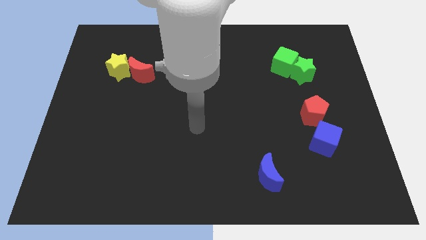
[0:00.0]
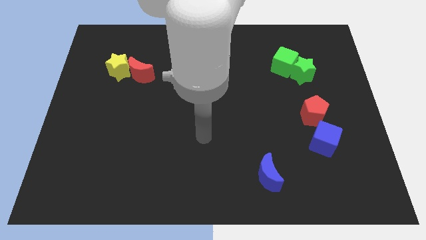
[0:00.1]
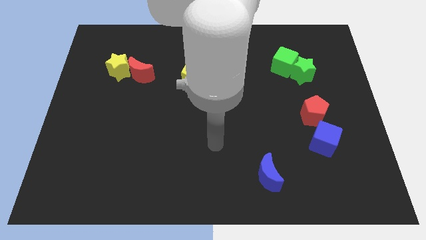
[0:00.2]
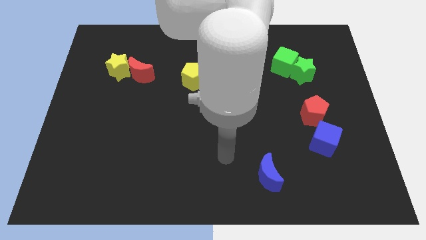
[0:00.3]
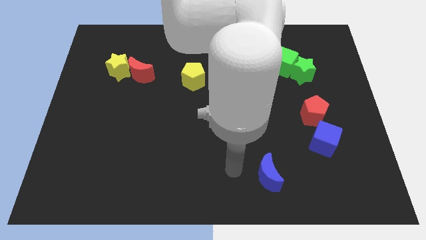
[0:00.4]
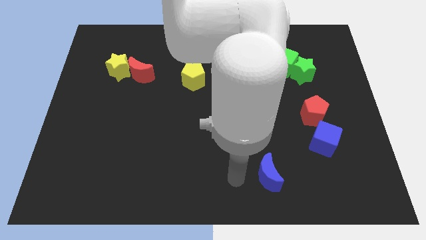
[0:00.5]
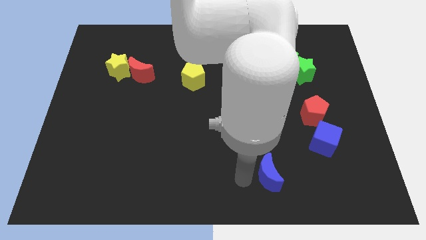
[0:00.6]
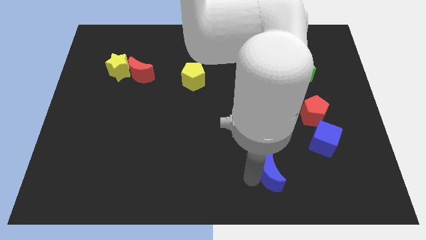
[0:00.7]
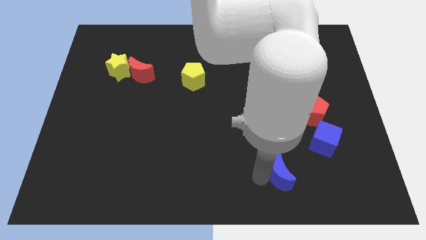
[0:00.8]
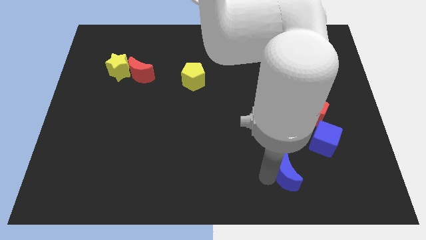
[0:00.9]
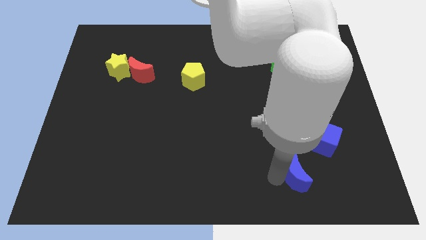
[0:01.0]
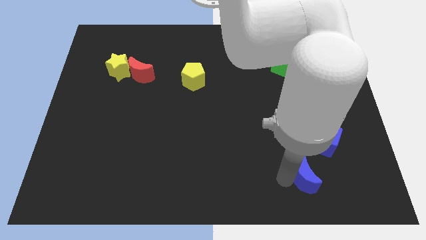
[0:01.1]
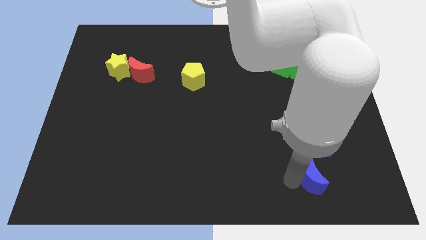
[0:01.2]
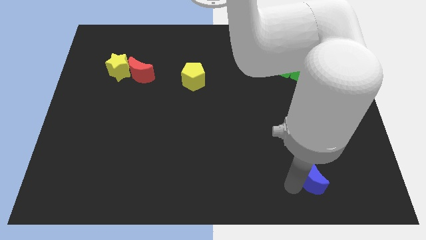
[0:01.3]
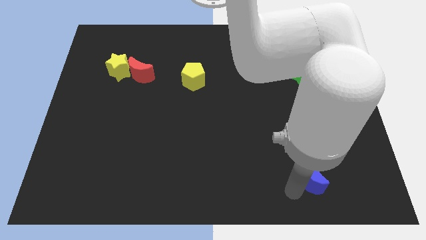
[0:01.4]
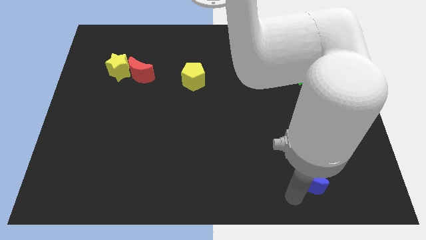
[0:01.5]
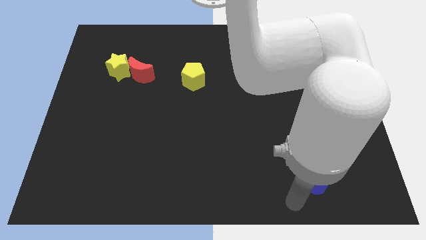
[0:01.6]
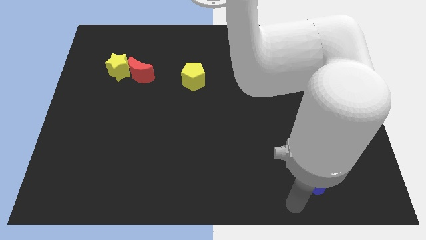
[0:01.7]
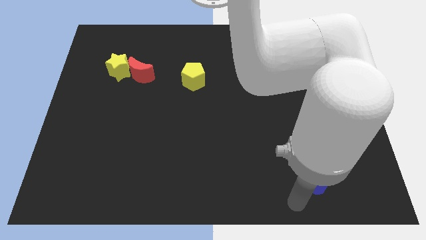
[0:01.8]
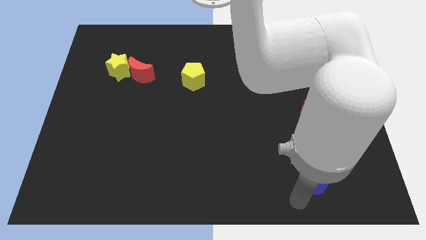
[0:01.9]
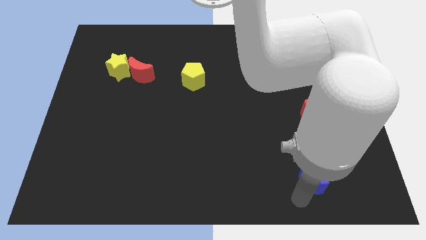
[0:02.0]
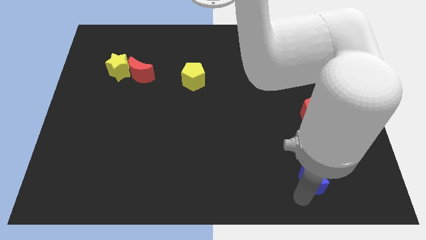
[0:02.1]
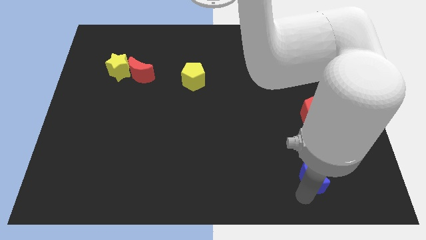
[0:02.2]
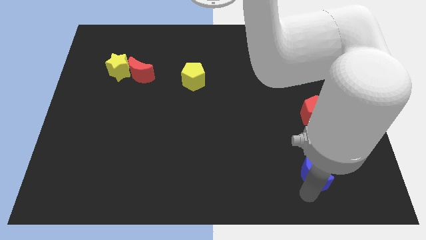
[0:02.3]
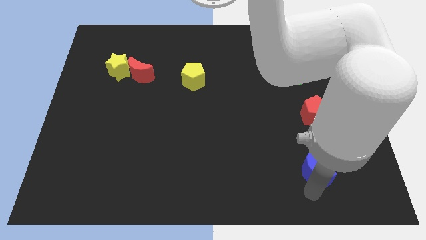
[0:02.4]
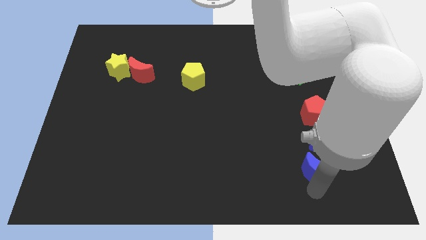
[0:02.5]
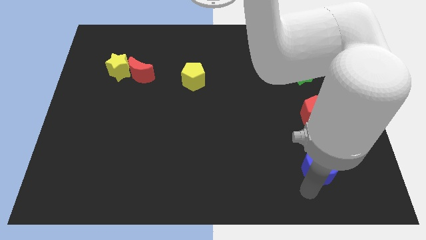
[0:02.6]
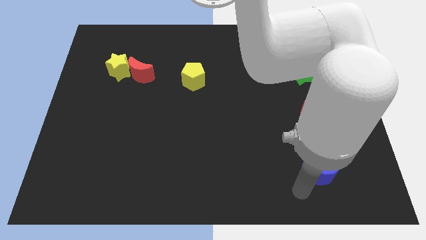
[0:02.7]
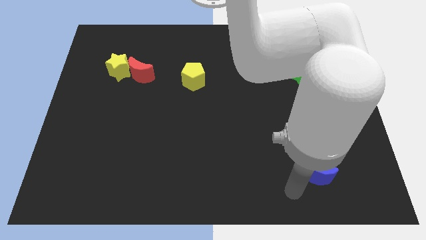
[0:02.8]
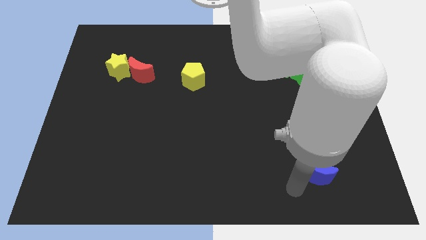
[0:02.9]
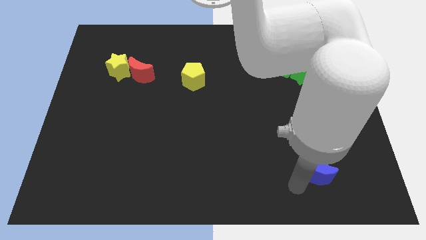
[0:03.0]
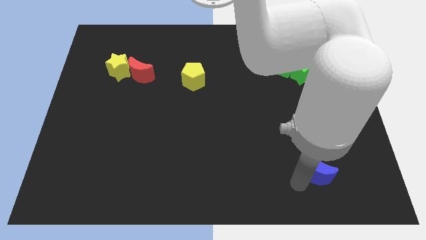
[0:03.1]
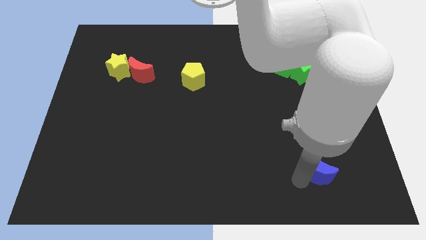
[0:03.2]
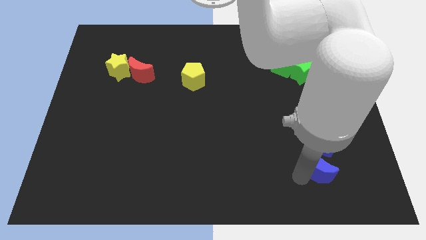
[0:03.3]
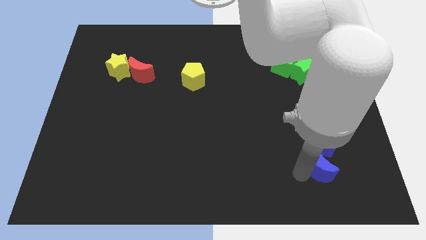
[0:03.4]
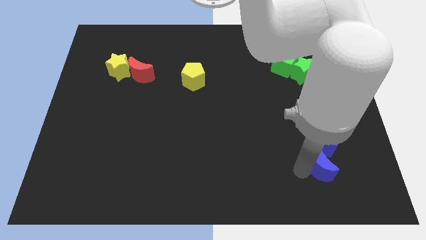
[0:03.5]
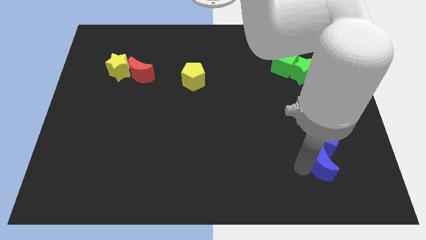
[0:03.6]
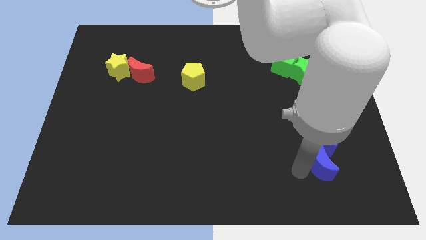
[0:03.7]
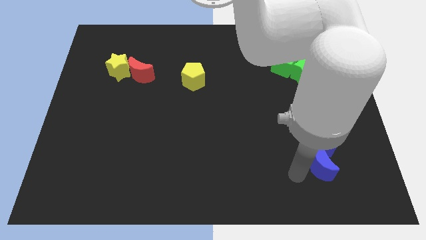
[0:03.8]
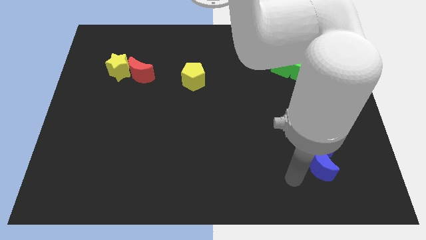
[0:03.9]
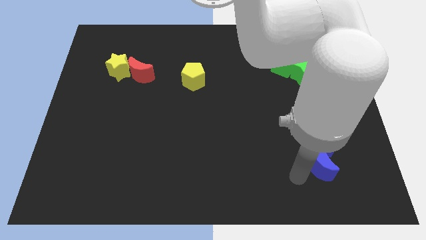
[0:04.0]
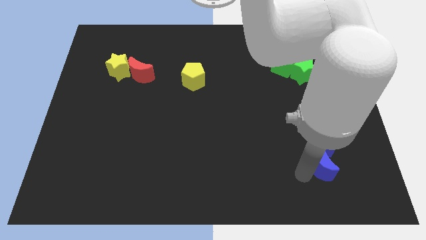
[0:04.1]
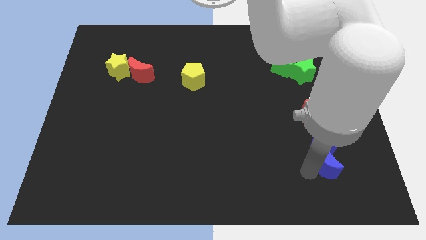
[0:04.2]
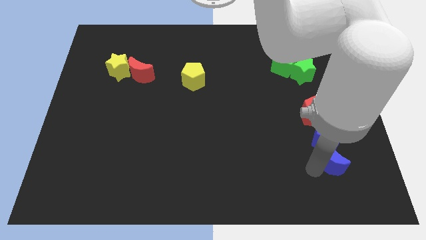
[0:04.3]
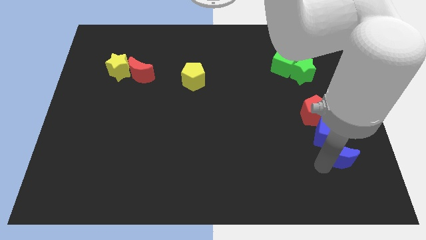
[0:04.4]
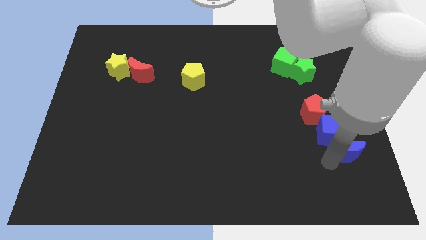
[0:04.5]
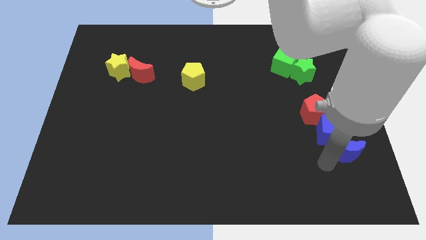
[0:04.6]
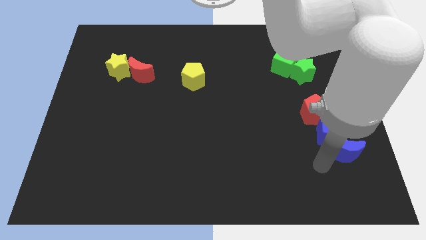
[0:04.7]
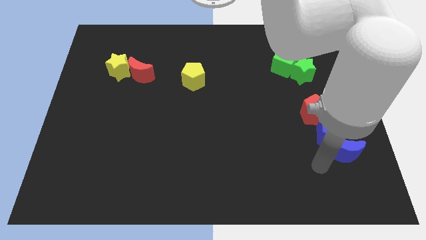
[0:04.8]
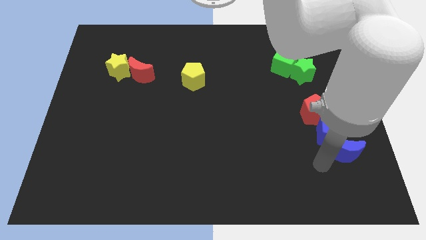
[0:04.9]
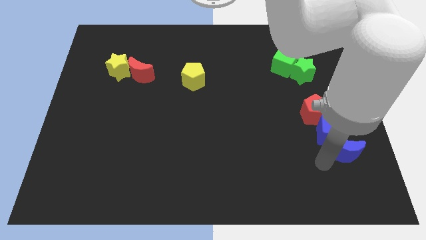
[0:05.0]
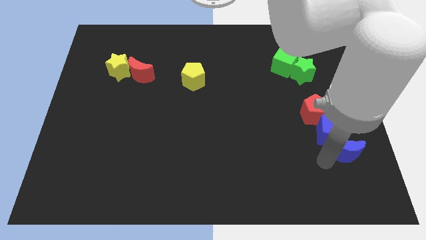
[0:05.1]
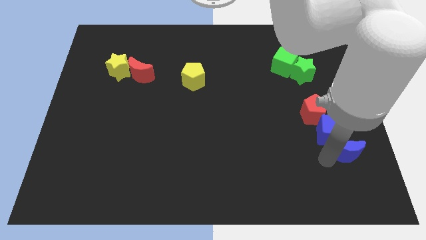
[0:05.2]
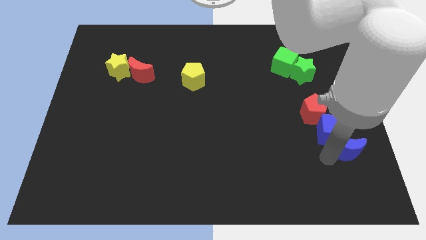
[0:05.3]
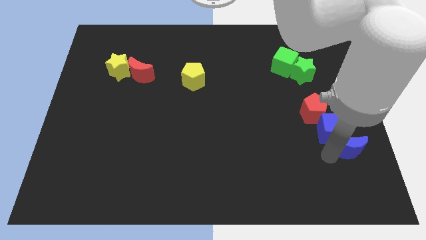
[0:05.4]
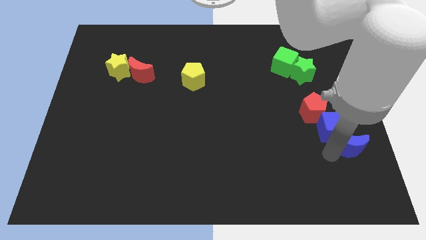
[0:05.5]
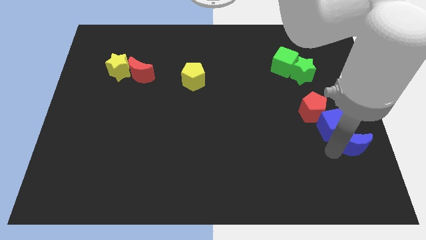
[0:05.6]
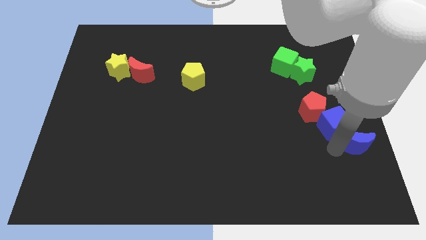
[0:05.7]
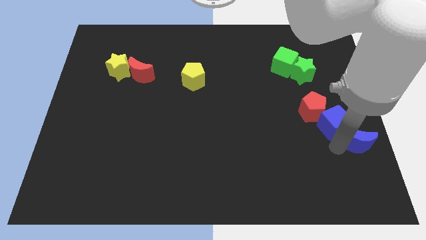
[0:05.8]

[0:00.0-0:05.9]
put the blue moon to the right side of the board

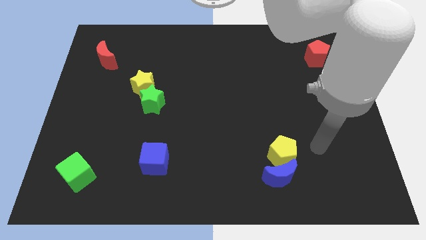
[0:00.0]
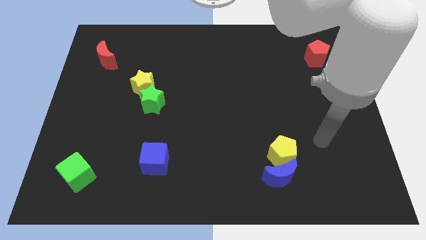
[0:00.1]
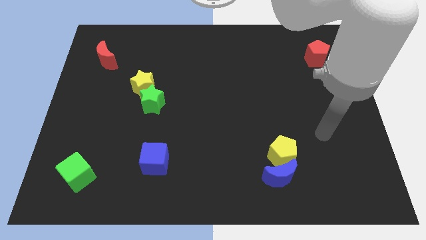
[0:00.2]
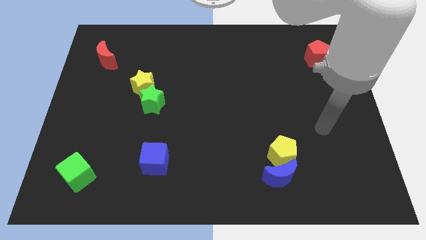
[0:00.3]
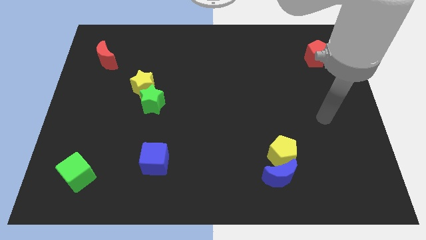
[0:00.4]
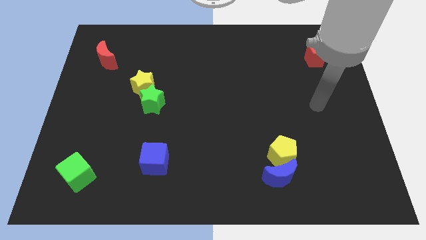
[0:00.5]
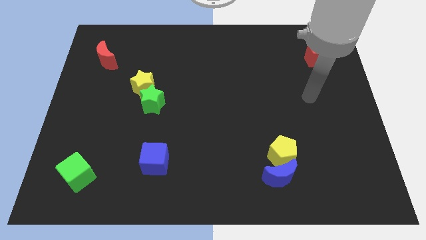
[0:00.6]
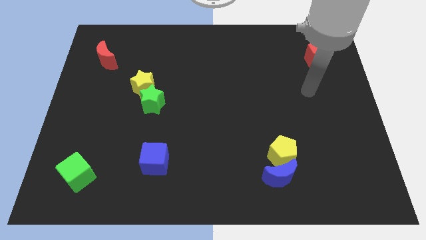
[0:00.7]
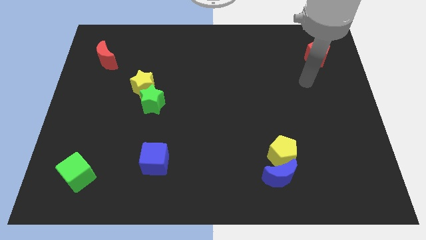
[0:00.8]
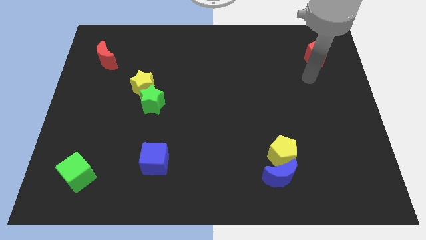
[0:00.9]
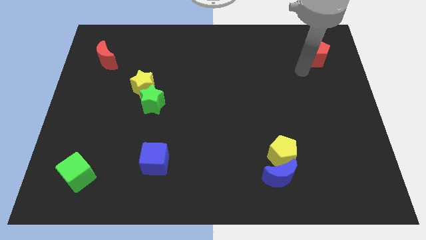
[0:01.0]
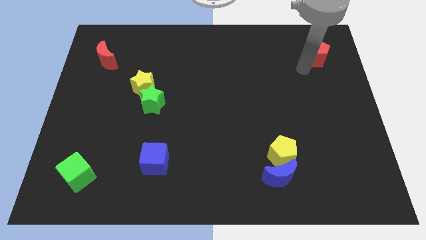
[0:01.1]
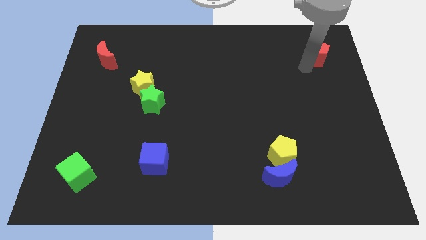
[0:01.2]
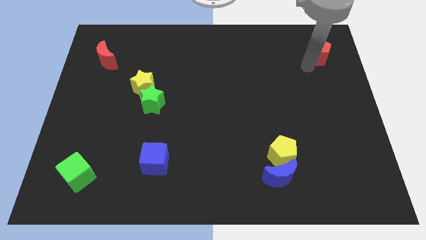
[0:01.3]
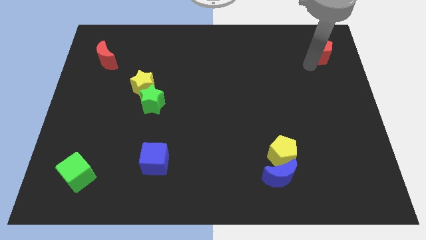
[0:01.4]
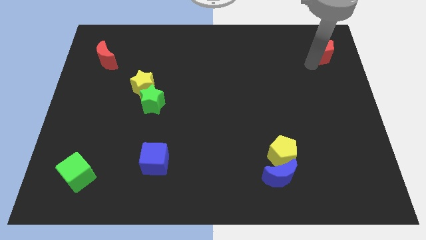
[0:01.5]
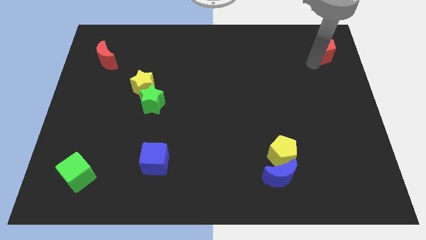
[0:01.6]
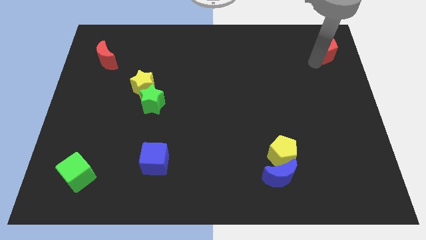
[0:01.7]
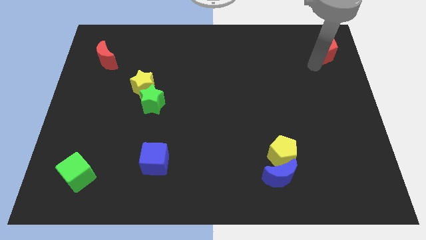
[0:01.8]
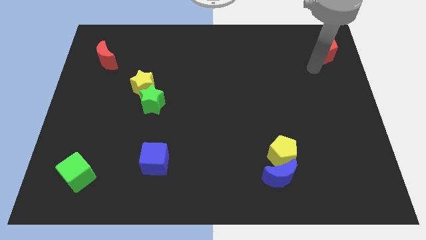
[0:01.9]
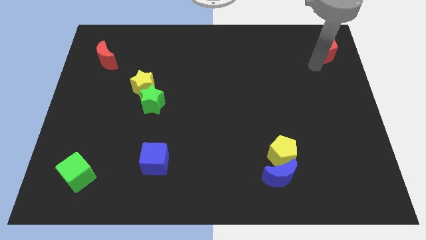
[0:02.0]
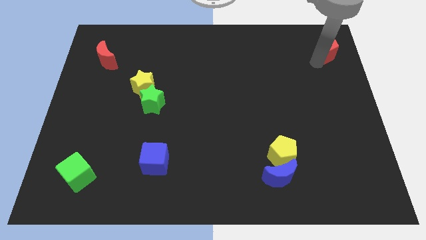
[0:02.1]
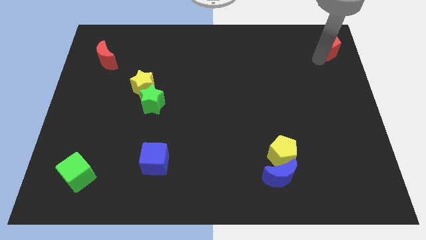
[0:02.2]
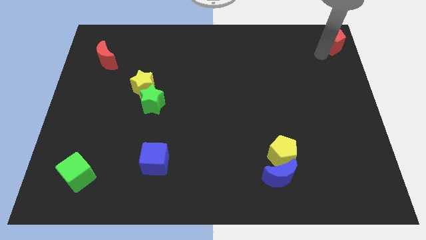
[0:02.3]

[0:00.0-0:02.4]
slide the red pentagon to the top right corner
